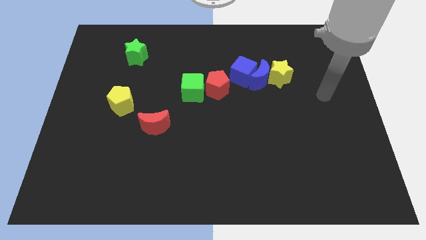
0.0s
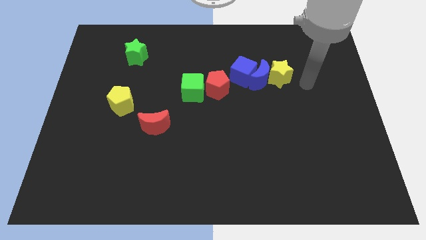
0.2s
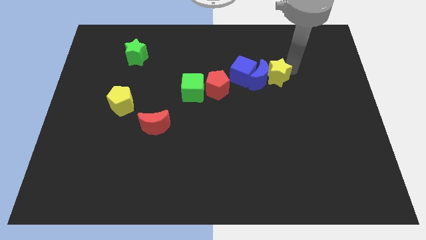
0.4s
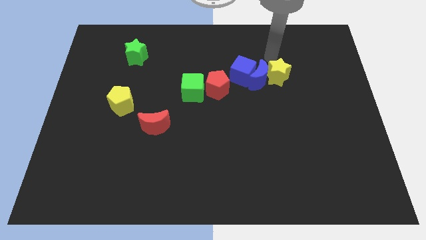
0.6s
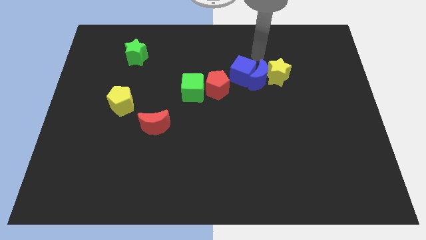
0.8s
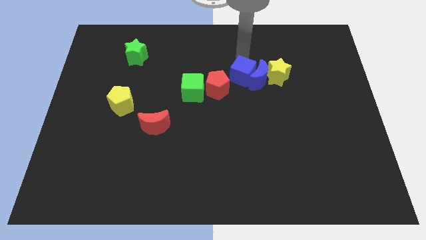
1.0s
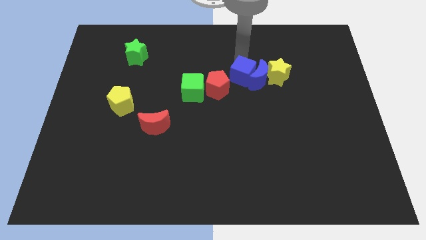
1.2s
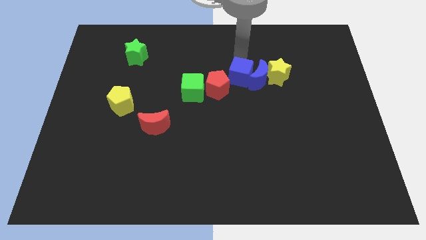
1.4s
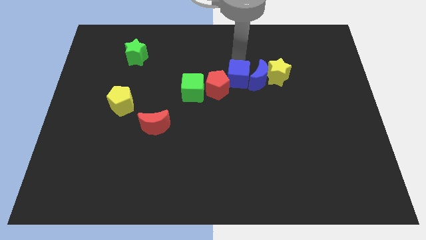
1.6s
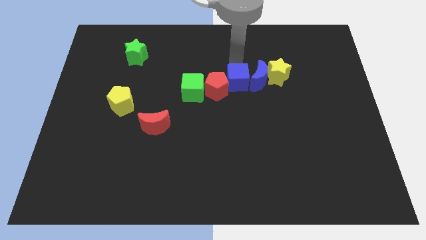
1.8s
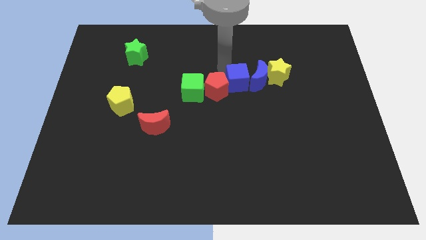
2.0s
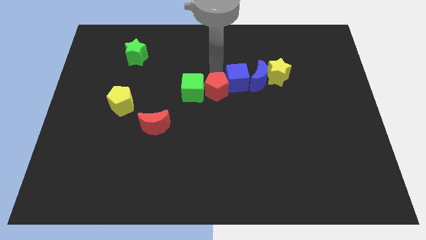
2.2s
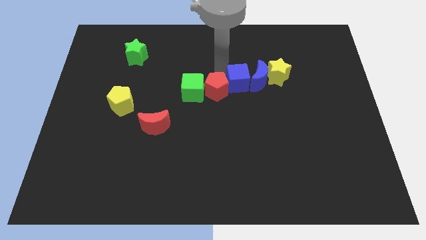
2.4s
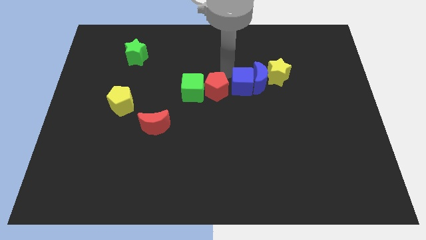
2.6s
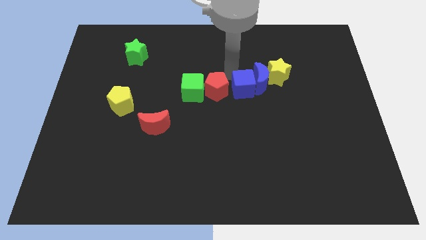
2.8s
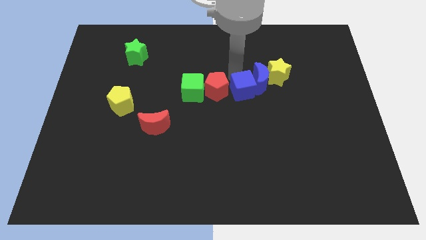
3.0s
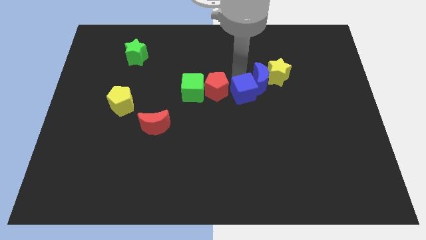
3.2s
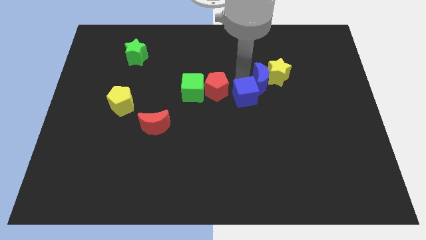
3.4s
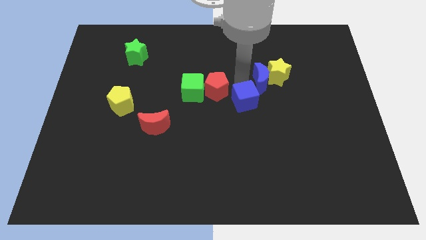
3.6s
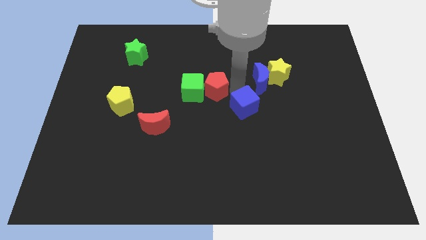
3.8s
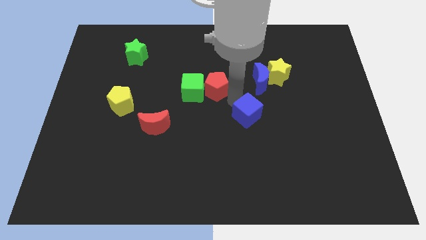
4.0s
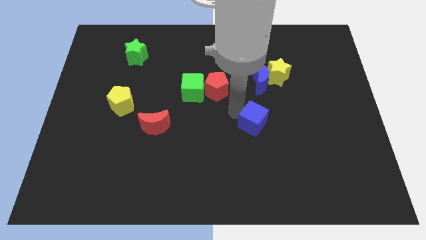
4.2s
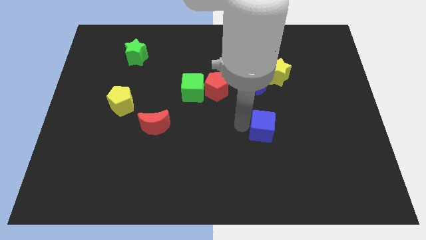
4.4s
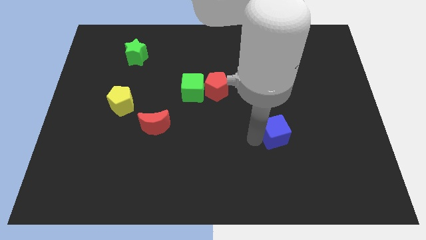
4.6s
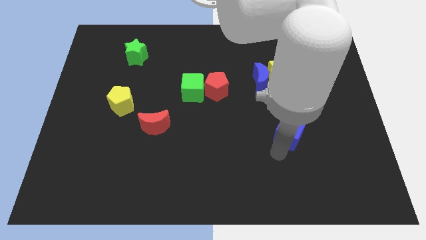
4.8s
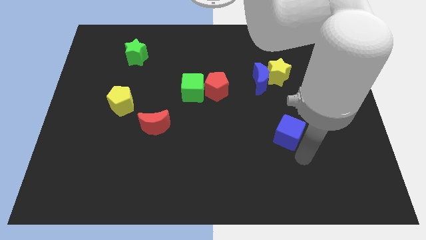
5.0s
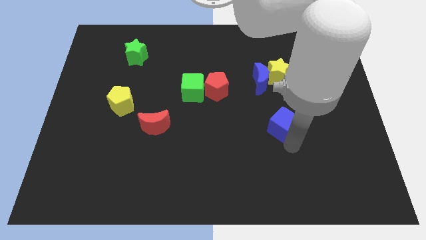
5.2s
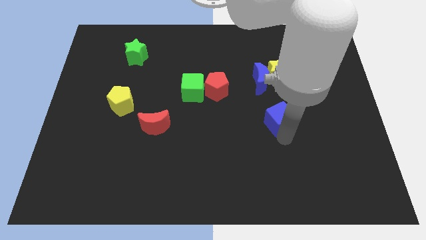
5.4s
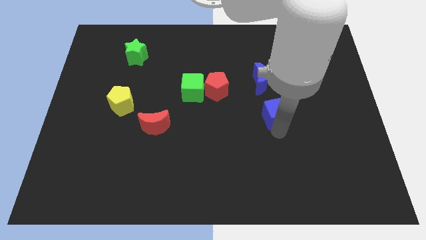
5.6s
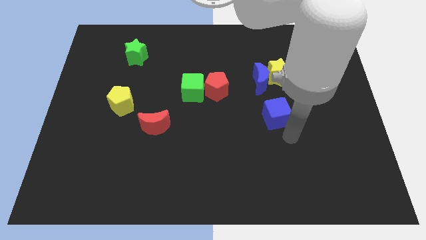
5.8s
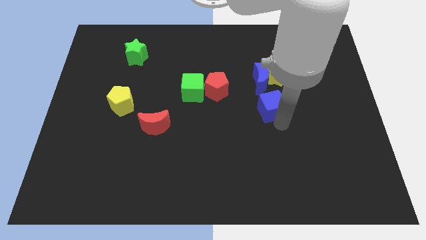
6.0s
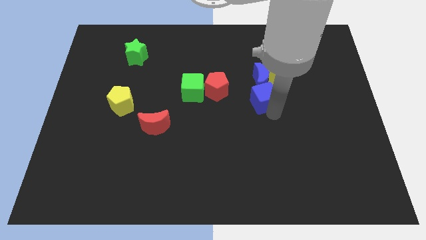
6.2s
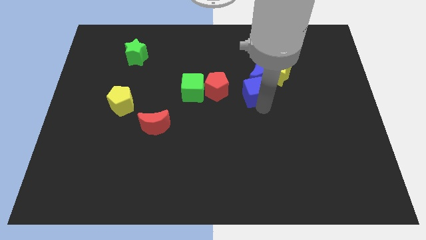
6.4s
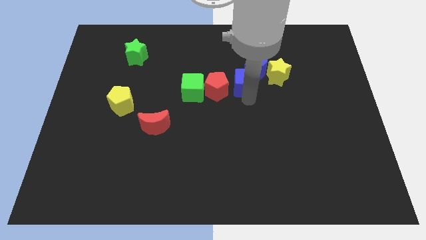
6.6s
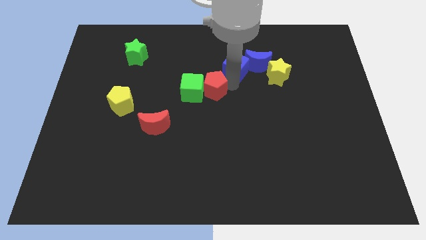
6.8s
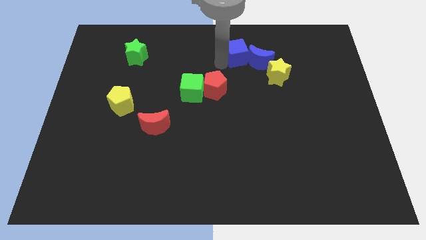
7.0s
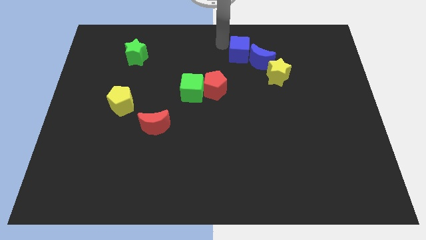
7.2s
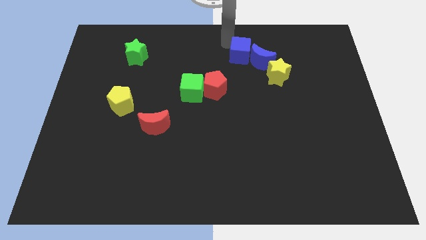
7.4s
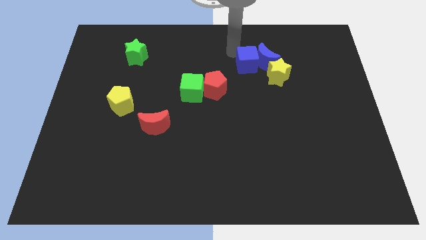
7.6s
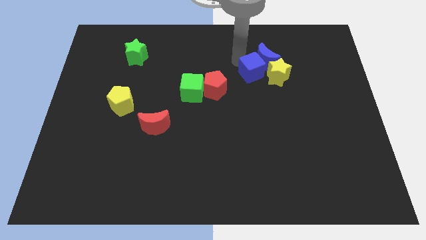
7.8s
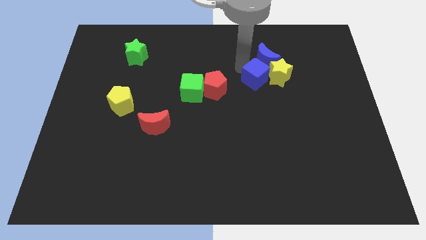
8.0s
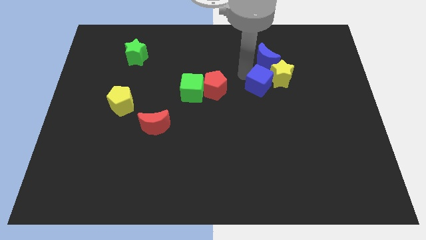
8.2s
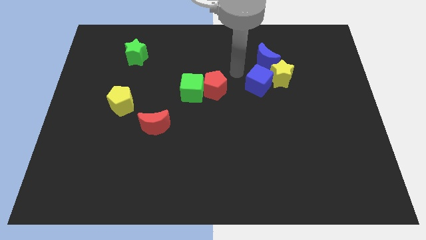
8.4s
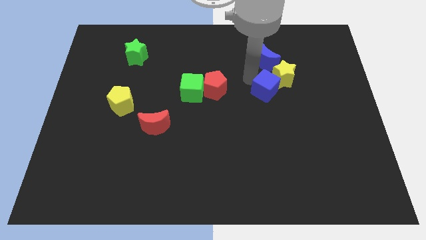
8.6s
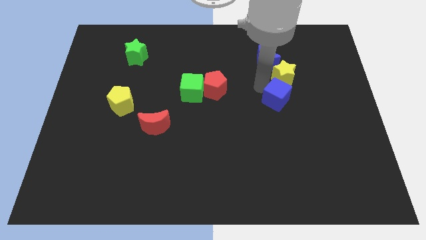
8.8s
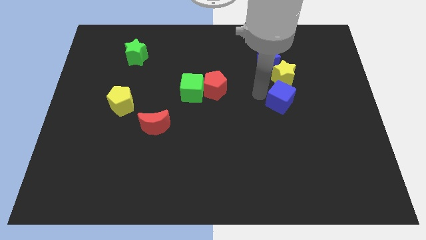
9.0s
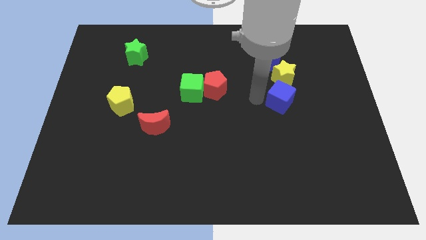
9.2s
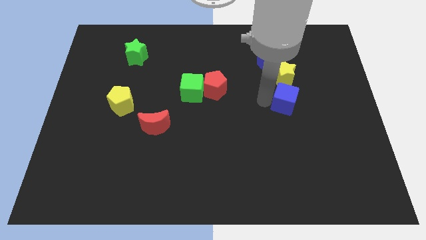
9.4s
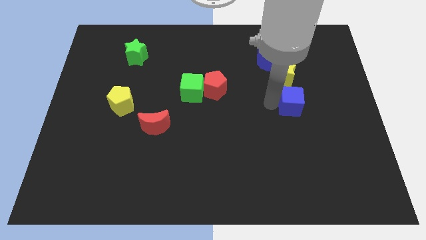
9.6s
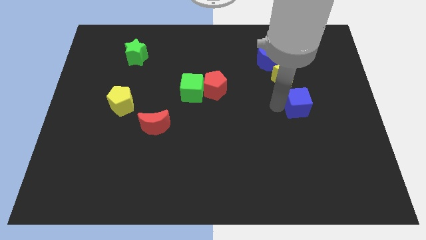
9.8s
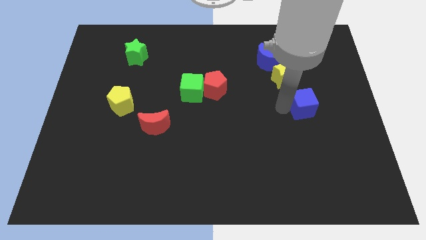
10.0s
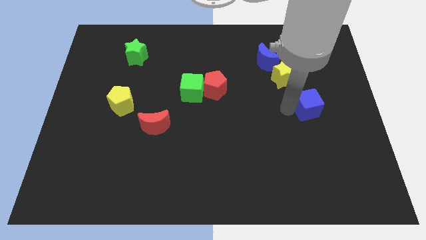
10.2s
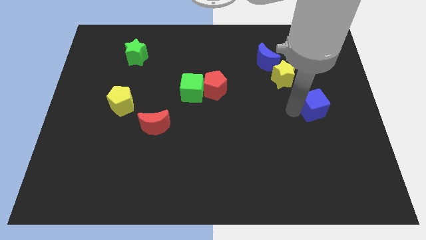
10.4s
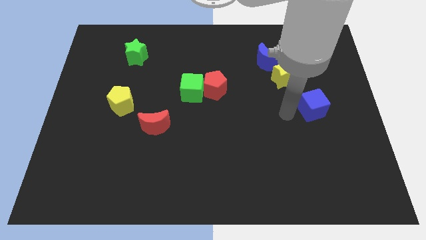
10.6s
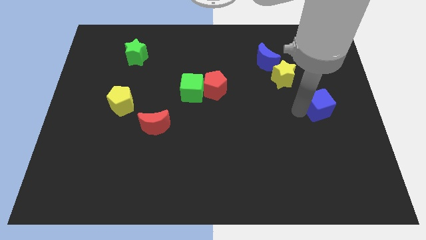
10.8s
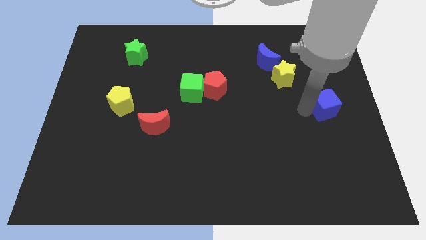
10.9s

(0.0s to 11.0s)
put the blue cube to the right side

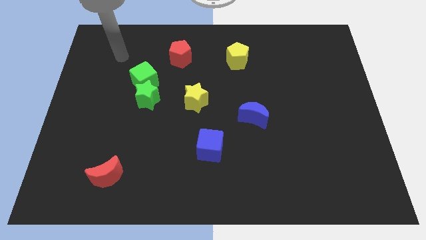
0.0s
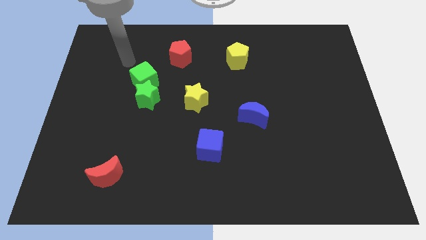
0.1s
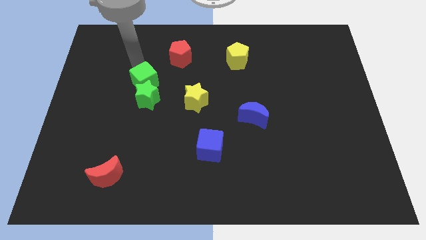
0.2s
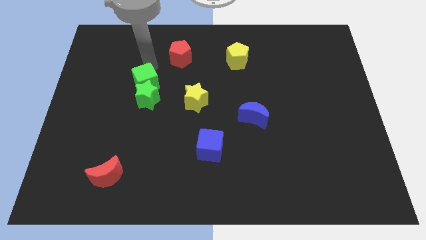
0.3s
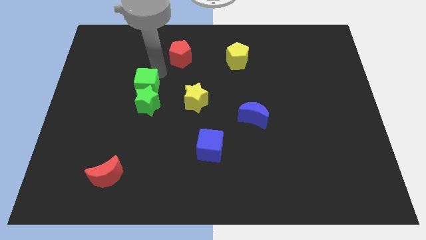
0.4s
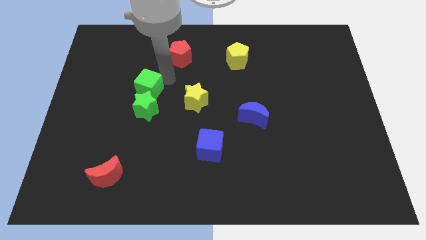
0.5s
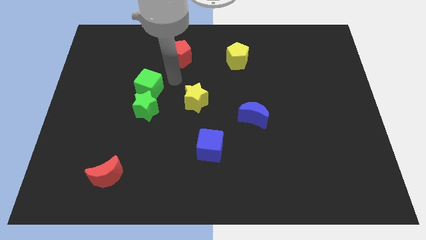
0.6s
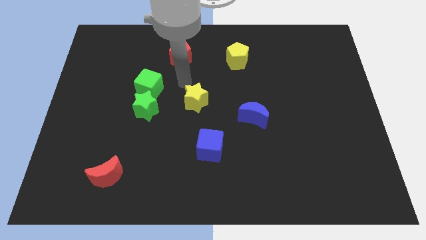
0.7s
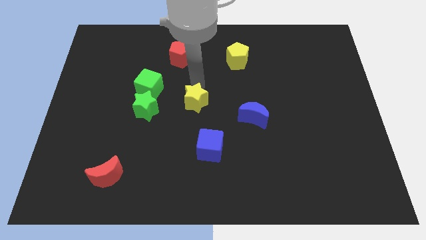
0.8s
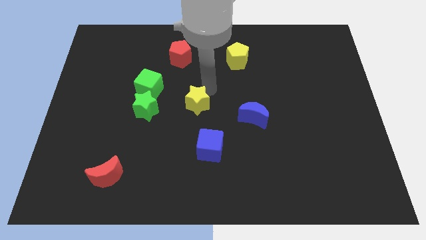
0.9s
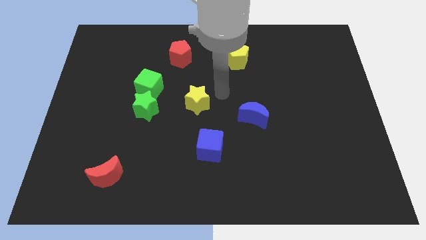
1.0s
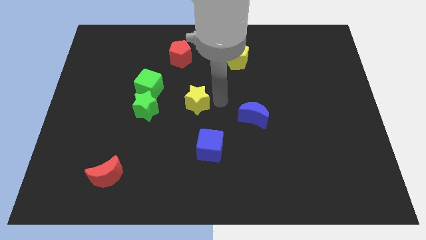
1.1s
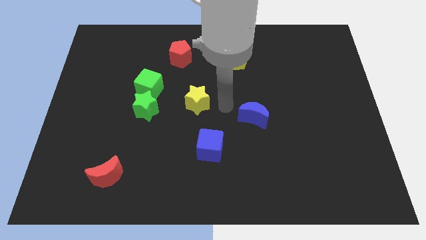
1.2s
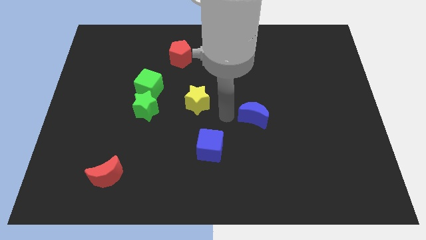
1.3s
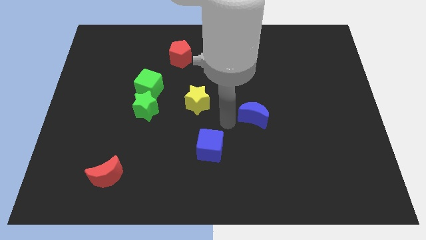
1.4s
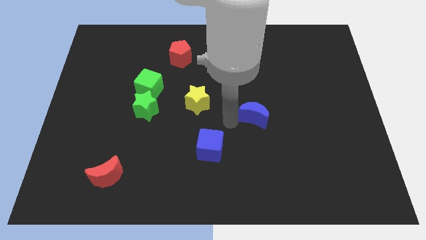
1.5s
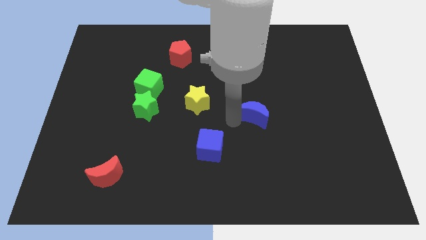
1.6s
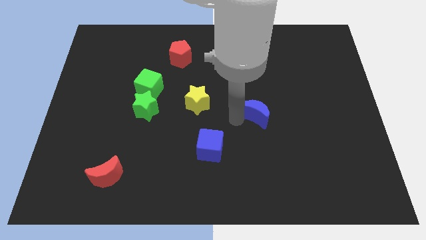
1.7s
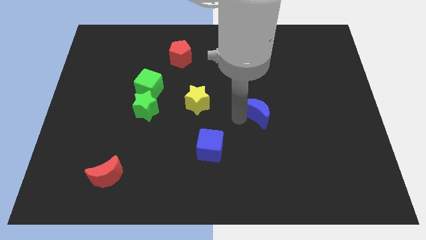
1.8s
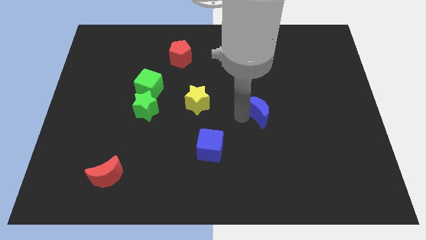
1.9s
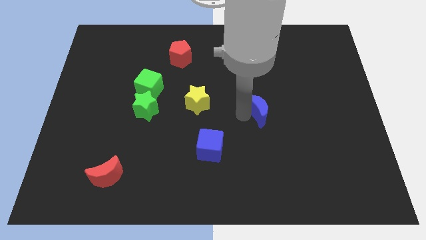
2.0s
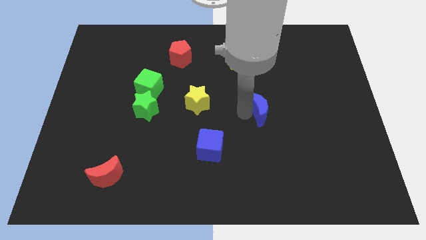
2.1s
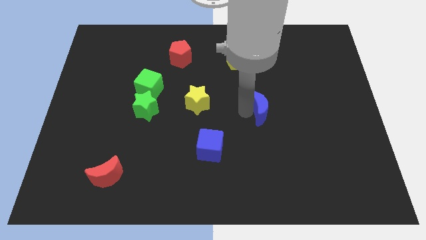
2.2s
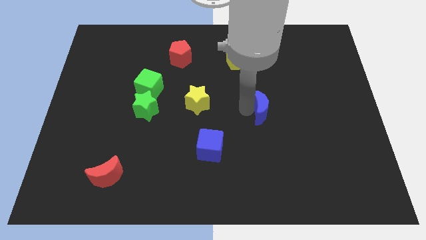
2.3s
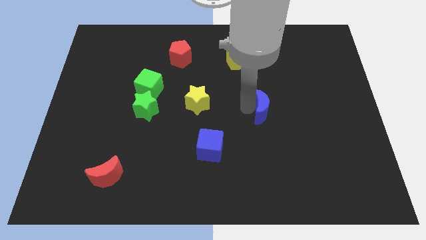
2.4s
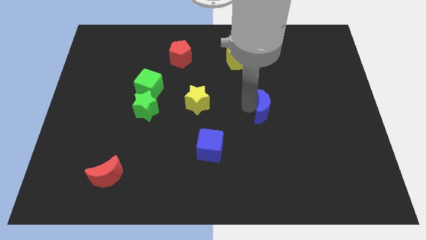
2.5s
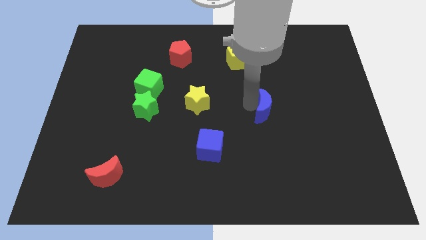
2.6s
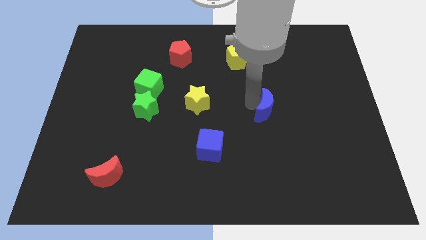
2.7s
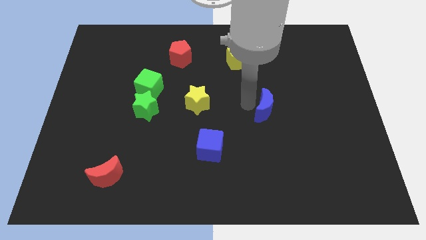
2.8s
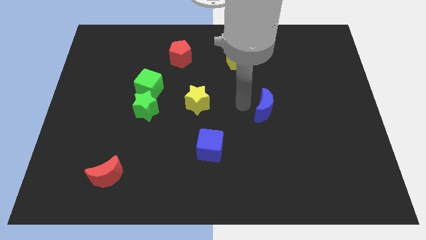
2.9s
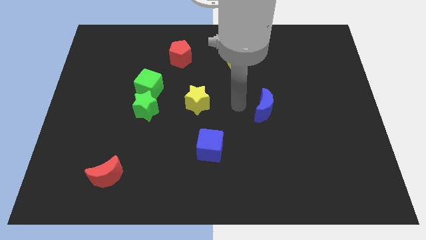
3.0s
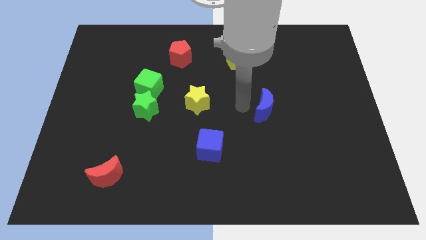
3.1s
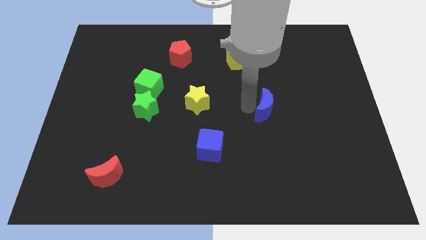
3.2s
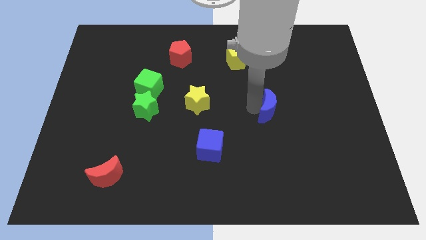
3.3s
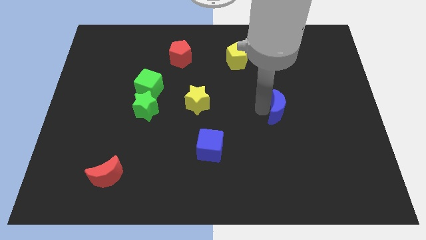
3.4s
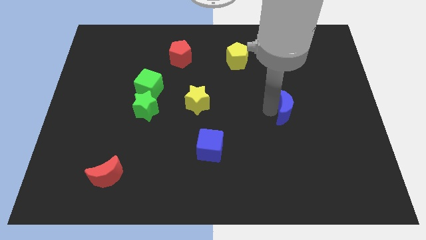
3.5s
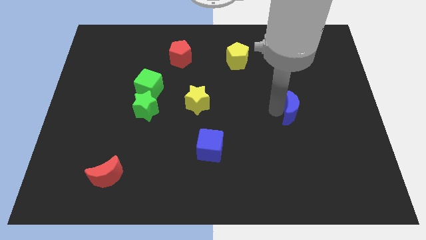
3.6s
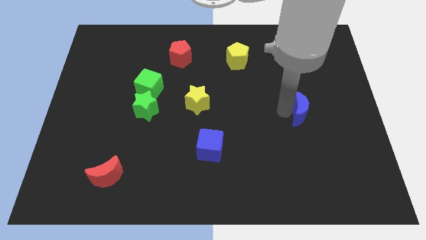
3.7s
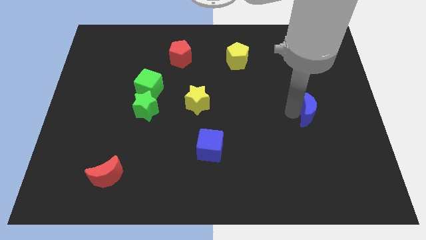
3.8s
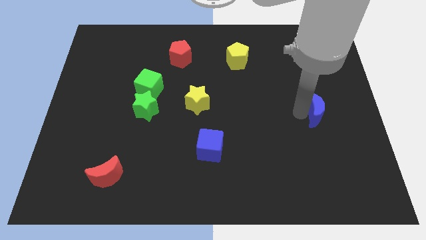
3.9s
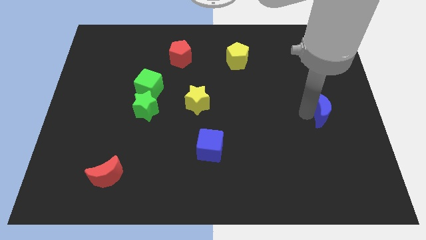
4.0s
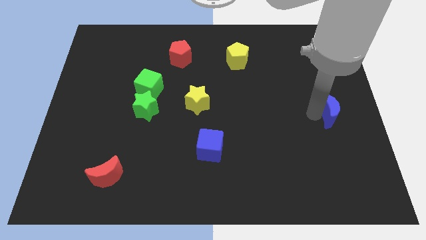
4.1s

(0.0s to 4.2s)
slide the blue moon to the center right
